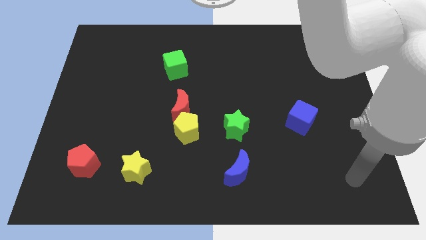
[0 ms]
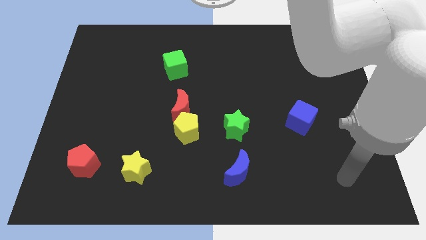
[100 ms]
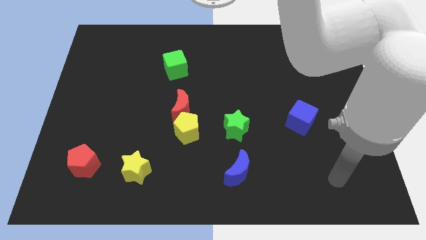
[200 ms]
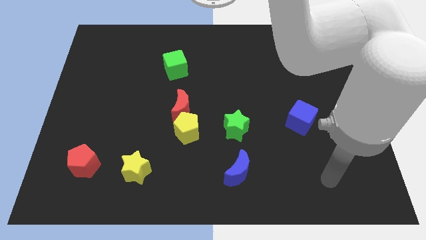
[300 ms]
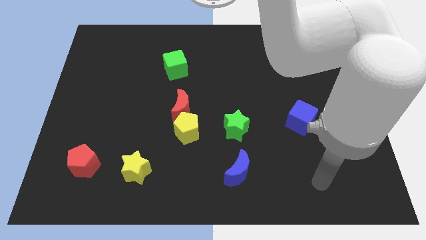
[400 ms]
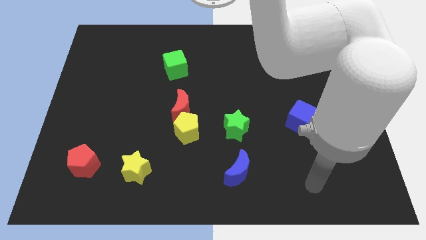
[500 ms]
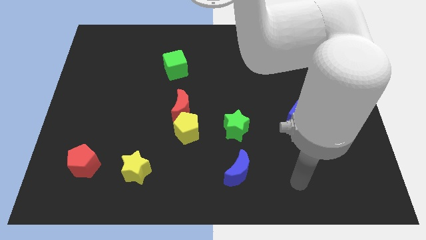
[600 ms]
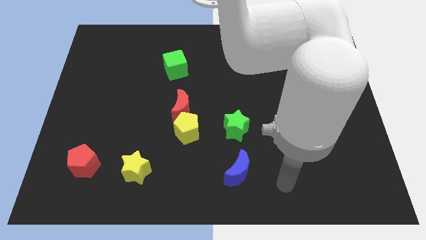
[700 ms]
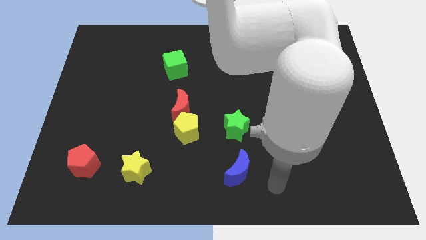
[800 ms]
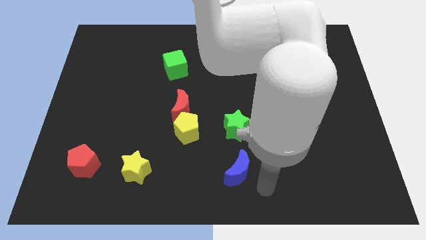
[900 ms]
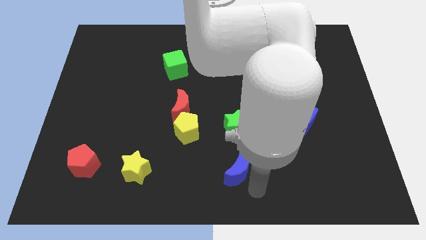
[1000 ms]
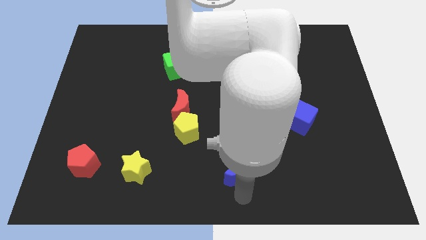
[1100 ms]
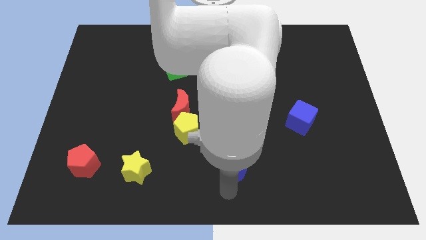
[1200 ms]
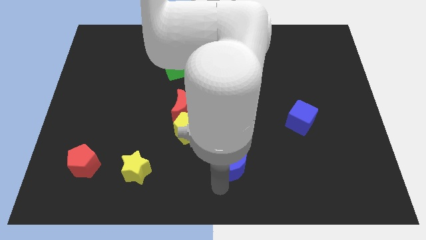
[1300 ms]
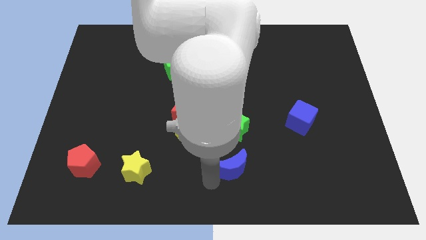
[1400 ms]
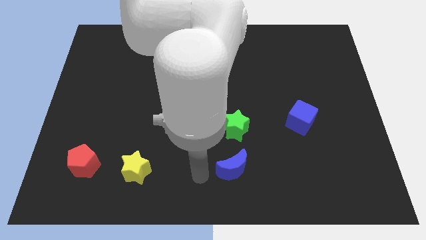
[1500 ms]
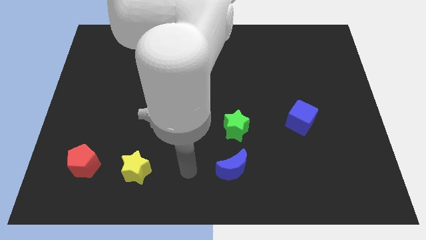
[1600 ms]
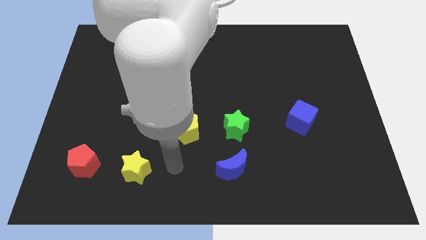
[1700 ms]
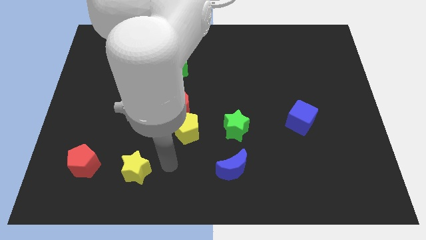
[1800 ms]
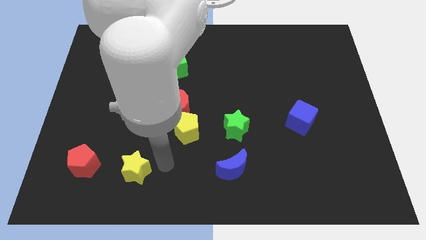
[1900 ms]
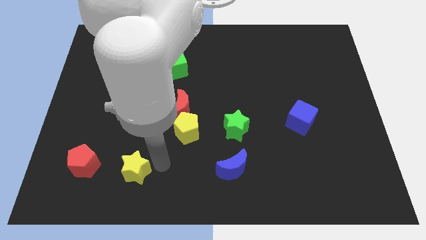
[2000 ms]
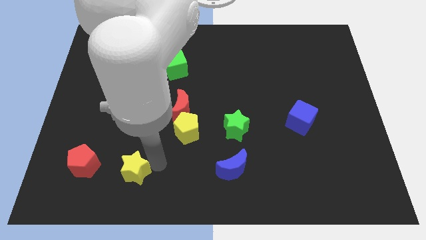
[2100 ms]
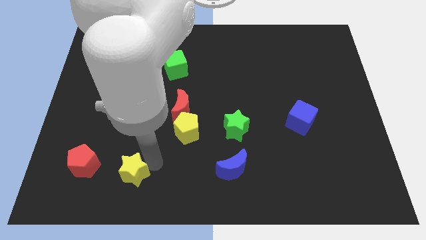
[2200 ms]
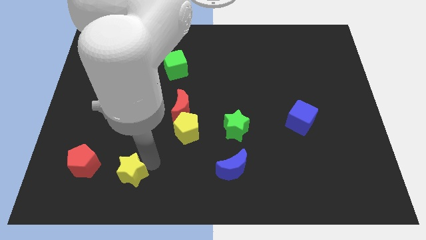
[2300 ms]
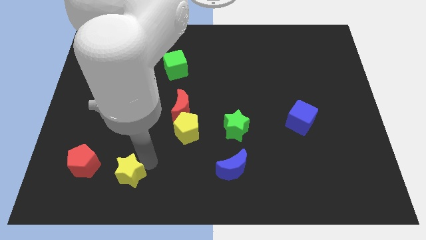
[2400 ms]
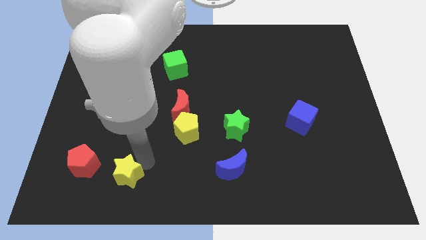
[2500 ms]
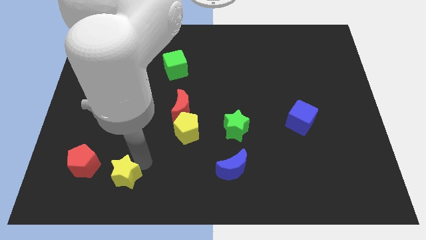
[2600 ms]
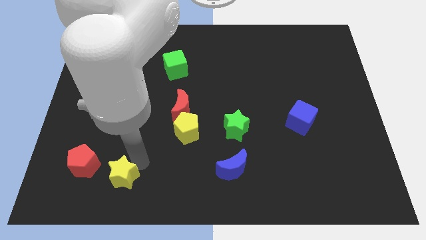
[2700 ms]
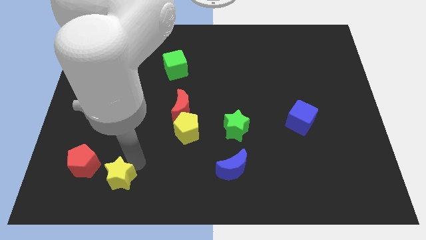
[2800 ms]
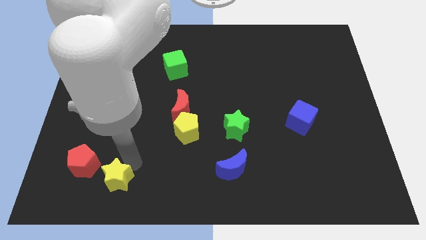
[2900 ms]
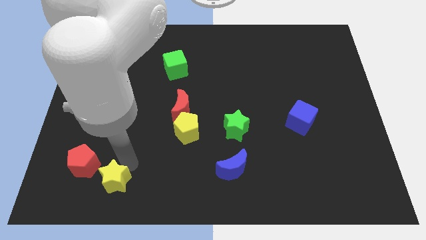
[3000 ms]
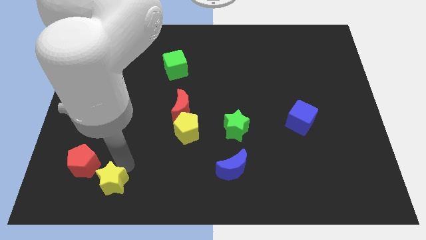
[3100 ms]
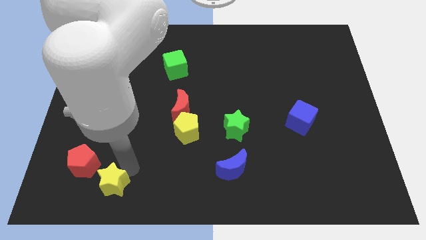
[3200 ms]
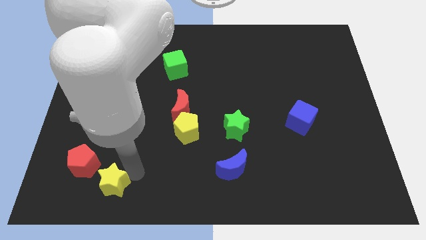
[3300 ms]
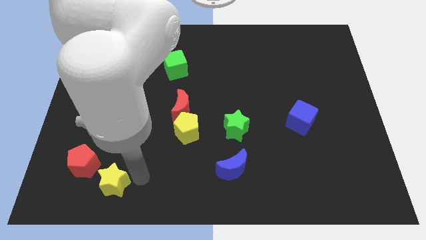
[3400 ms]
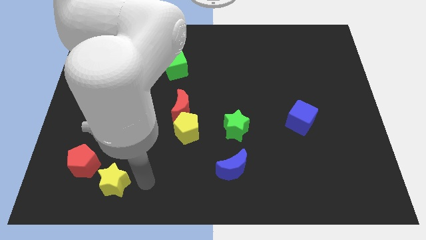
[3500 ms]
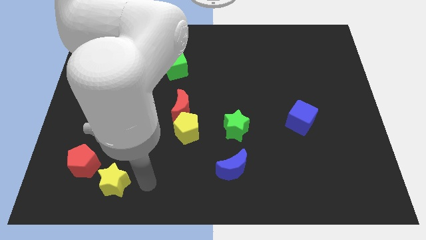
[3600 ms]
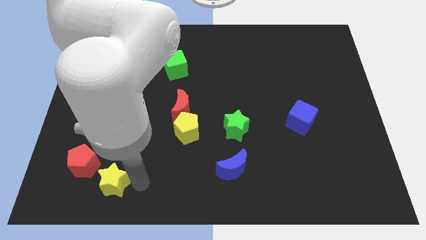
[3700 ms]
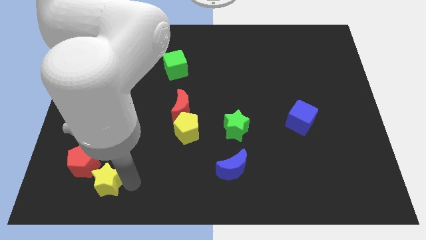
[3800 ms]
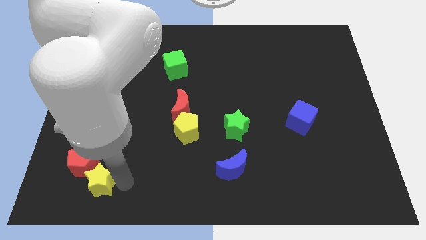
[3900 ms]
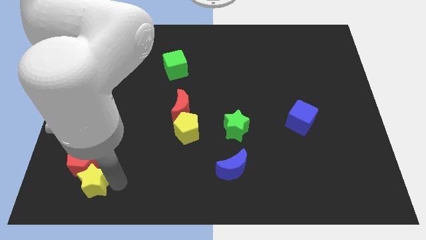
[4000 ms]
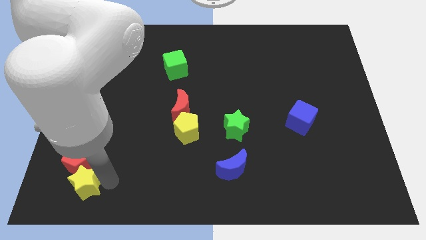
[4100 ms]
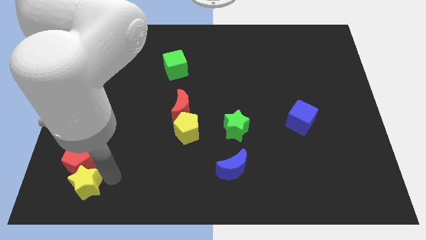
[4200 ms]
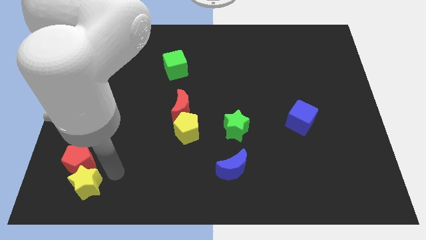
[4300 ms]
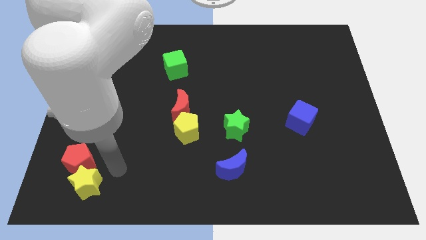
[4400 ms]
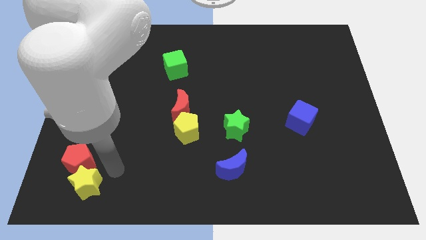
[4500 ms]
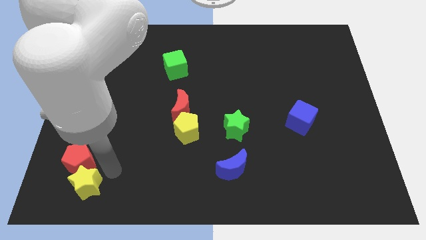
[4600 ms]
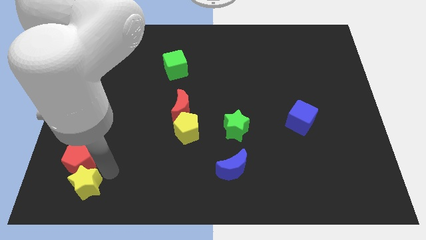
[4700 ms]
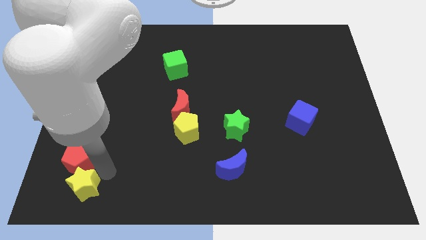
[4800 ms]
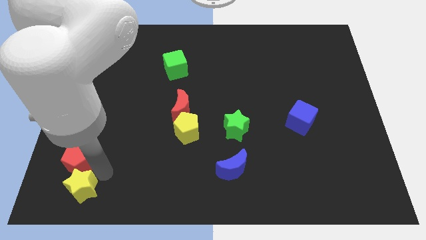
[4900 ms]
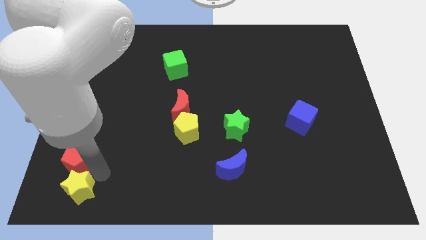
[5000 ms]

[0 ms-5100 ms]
put the yellow star to the lower left corner

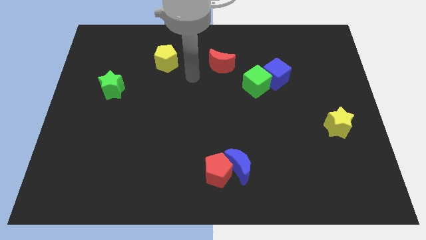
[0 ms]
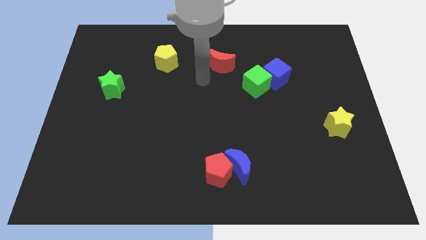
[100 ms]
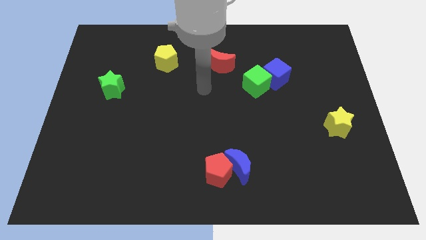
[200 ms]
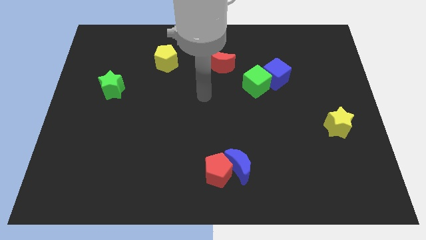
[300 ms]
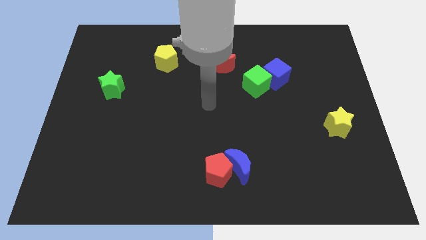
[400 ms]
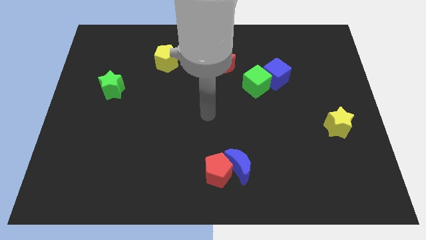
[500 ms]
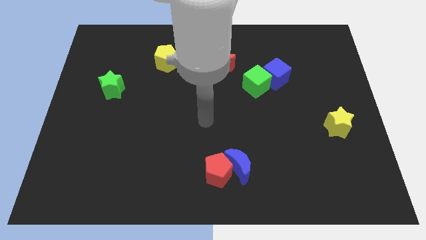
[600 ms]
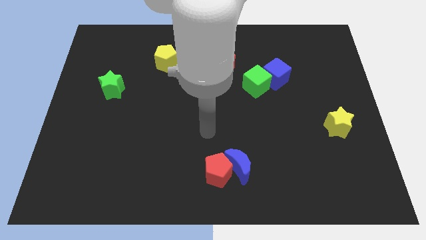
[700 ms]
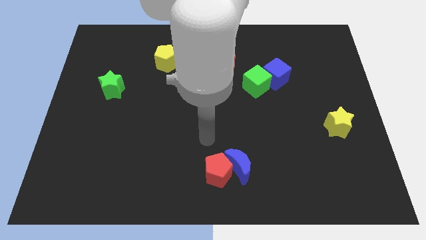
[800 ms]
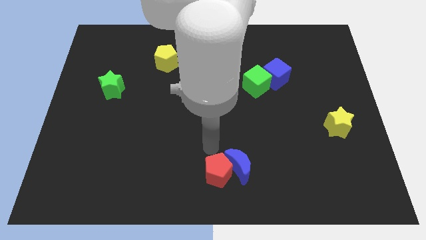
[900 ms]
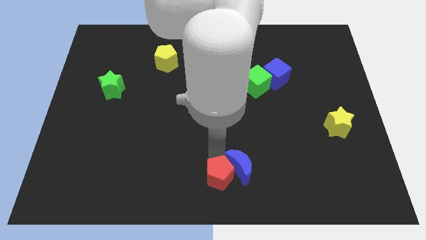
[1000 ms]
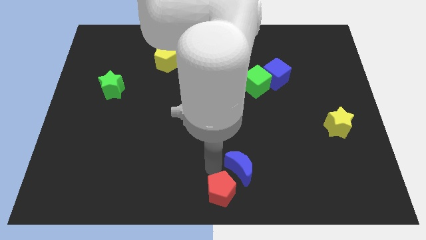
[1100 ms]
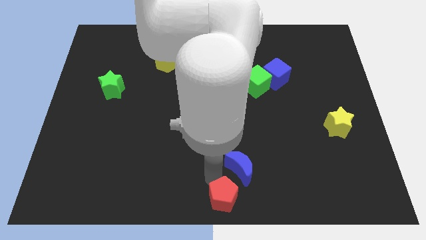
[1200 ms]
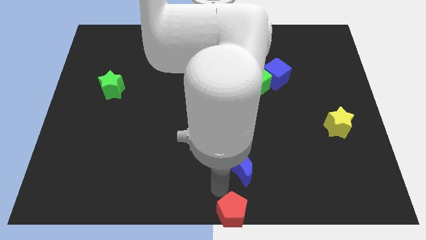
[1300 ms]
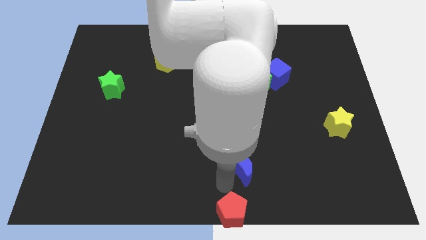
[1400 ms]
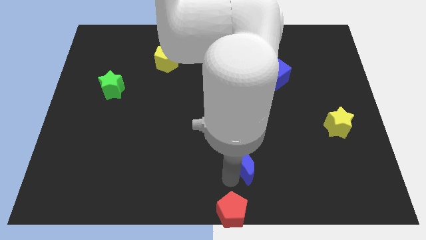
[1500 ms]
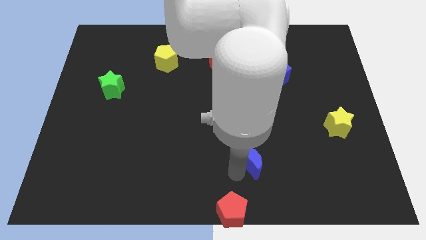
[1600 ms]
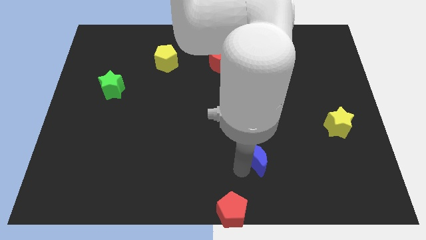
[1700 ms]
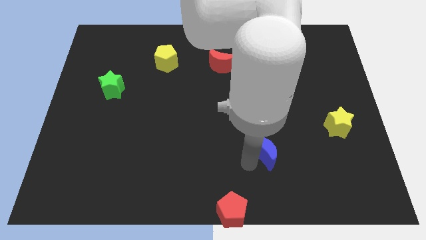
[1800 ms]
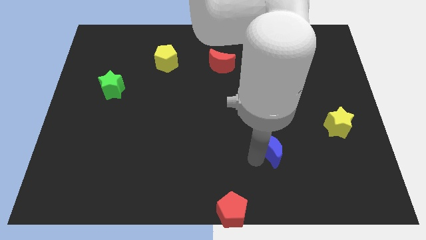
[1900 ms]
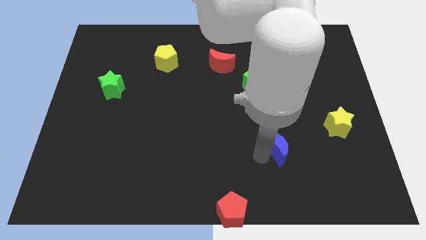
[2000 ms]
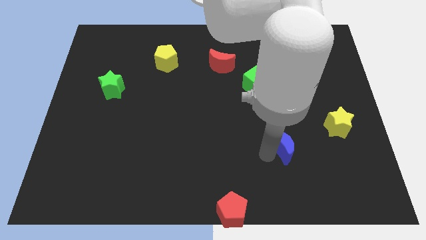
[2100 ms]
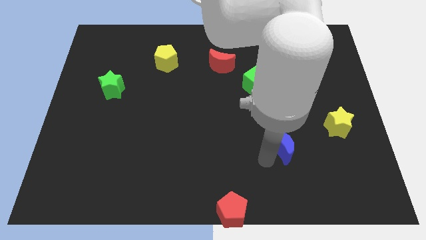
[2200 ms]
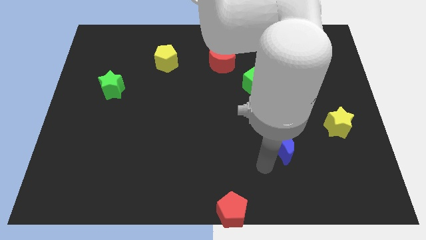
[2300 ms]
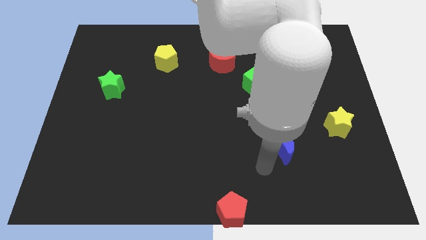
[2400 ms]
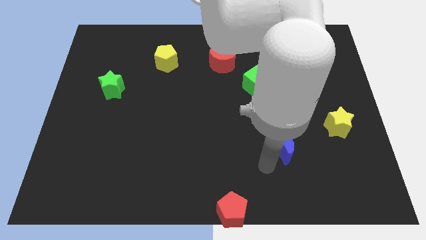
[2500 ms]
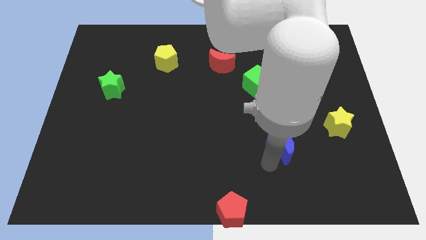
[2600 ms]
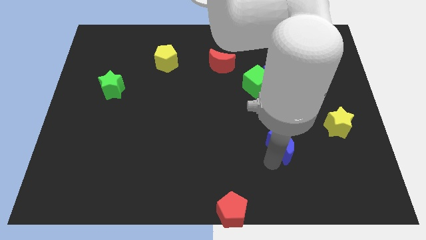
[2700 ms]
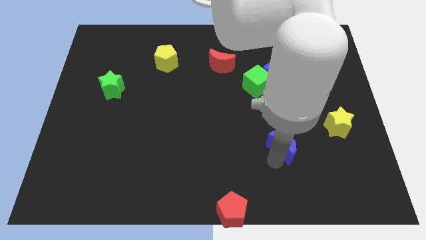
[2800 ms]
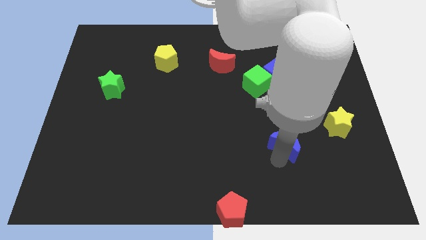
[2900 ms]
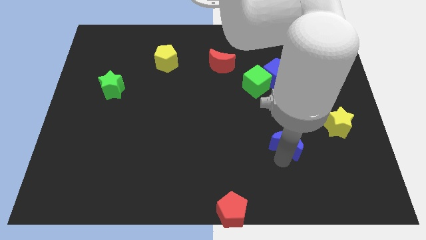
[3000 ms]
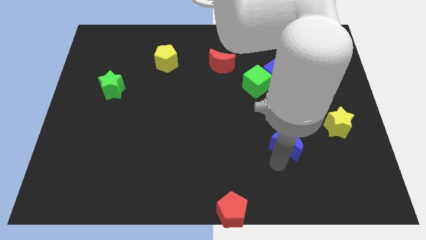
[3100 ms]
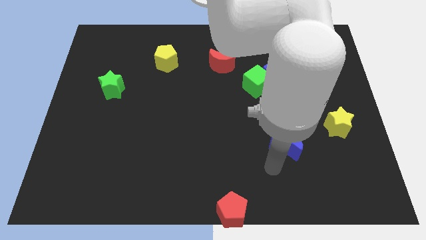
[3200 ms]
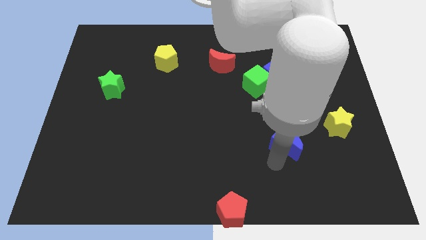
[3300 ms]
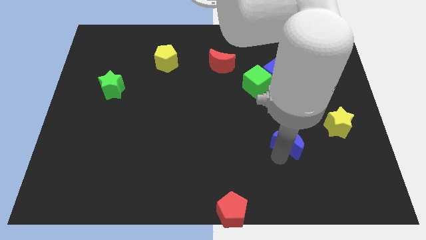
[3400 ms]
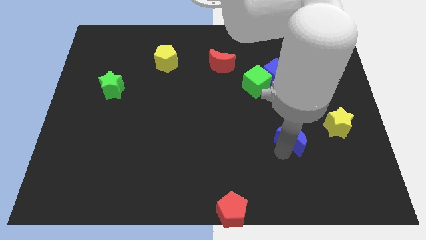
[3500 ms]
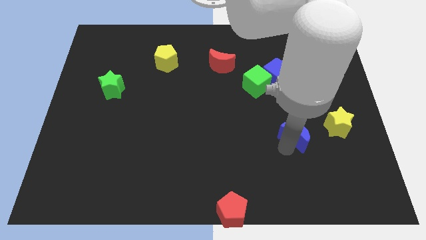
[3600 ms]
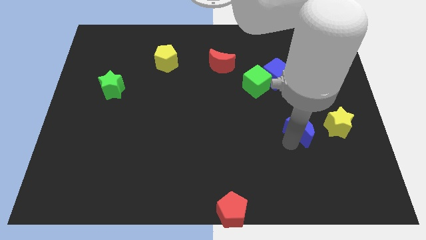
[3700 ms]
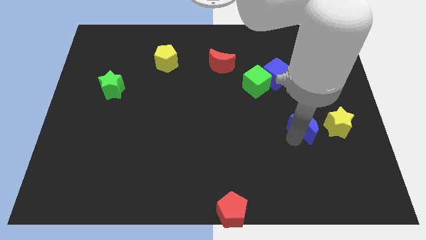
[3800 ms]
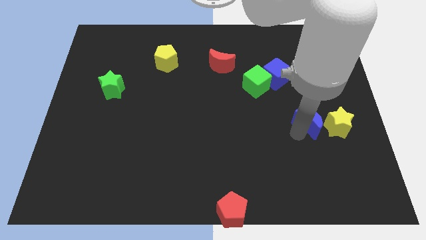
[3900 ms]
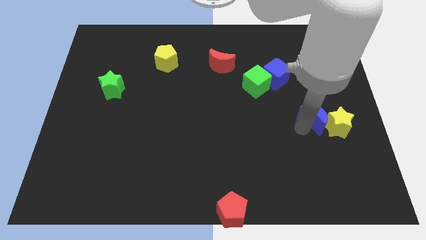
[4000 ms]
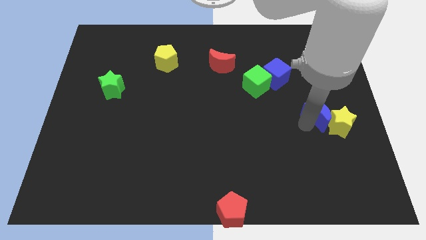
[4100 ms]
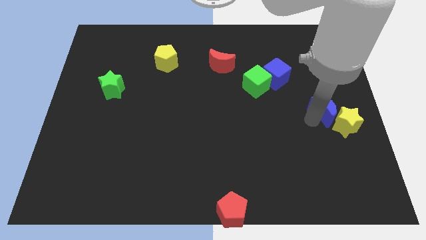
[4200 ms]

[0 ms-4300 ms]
move the blue moon to the center right
